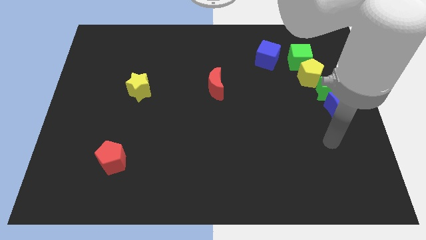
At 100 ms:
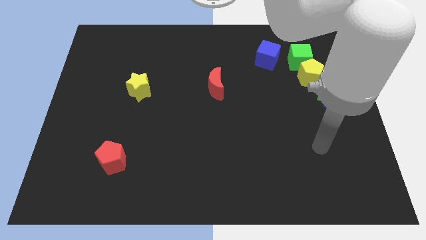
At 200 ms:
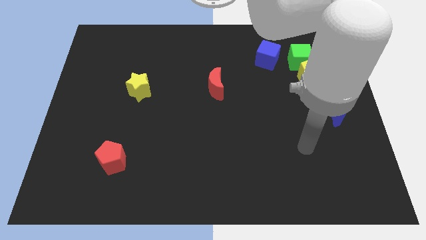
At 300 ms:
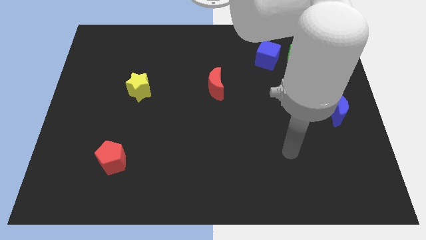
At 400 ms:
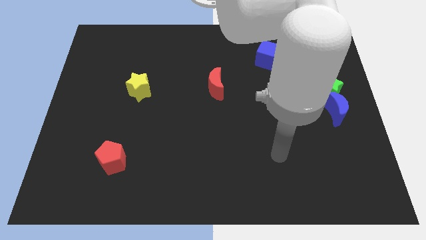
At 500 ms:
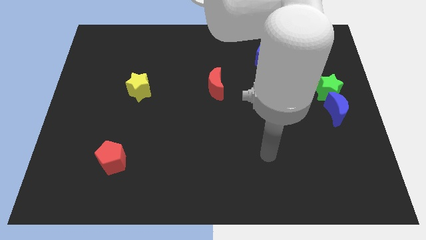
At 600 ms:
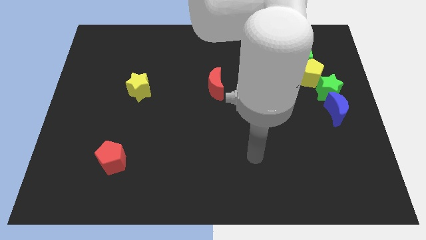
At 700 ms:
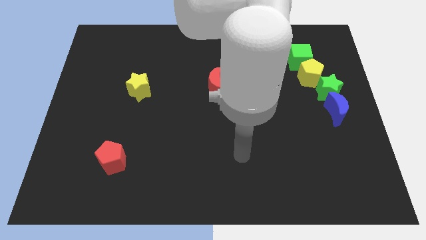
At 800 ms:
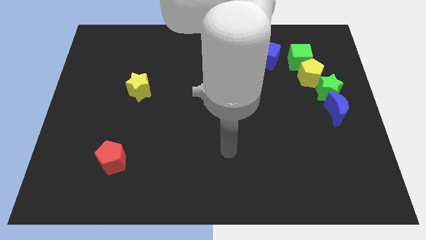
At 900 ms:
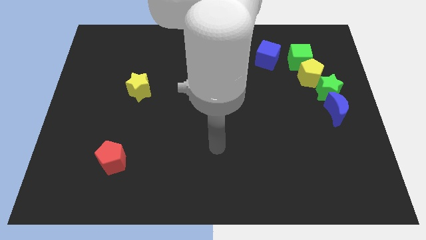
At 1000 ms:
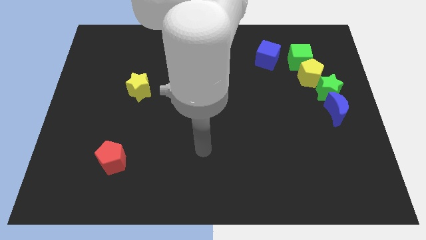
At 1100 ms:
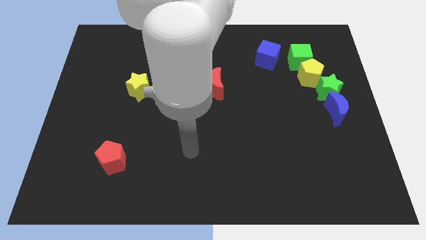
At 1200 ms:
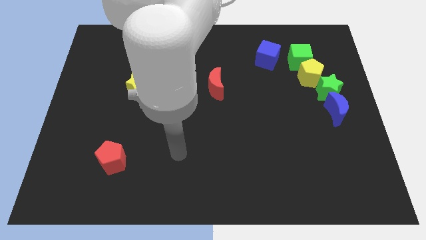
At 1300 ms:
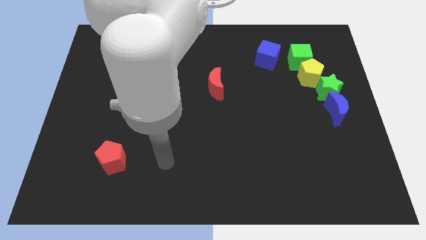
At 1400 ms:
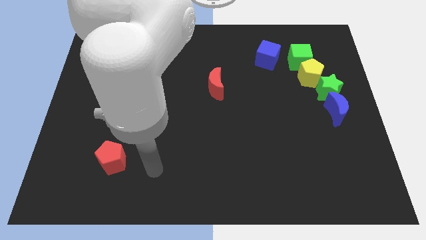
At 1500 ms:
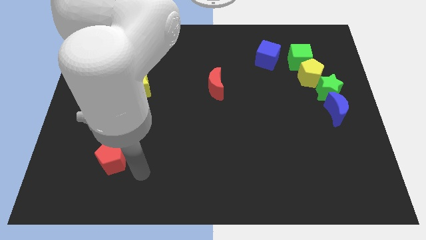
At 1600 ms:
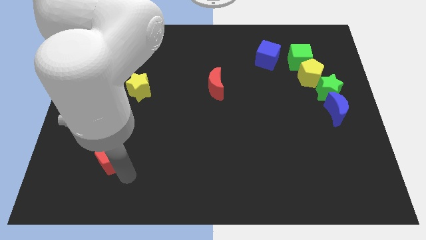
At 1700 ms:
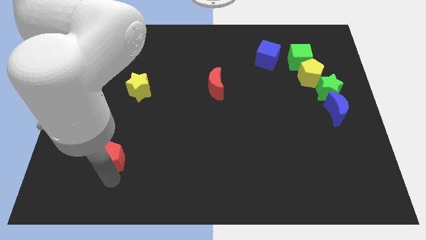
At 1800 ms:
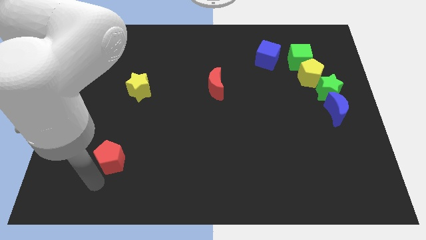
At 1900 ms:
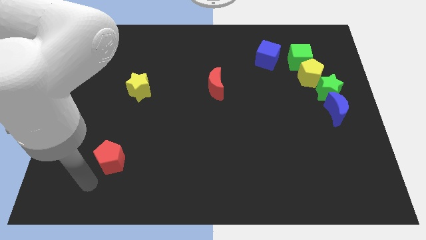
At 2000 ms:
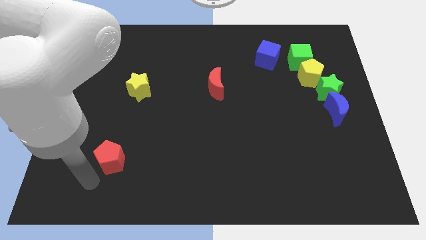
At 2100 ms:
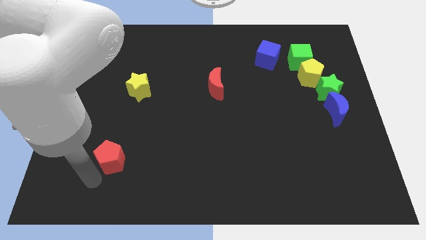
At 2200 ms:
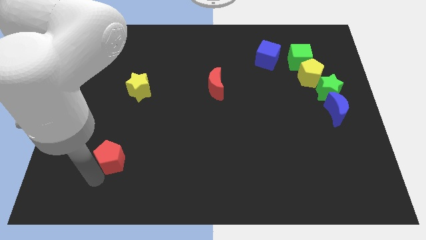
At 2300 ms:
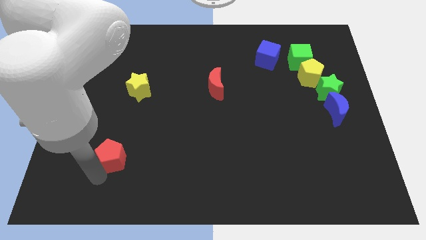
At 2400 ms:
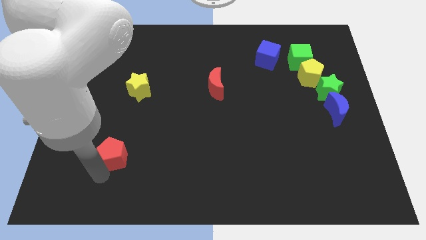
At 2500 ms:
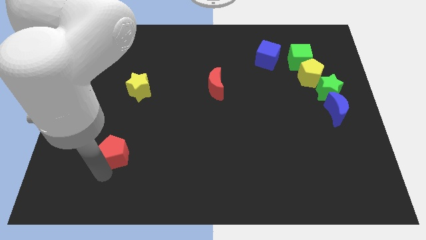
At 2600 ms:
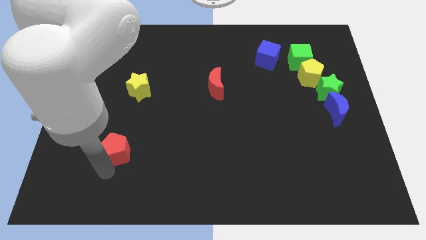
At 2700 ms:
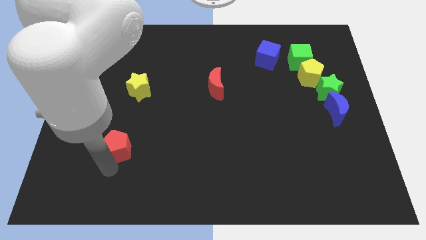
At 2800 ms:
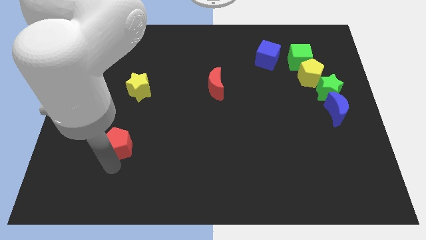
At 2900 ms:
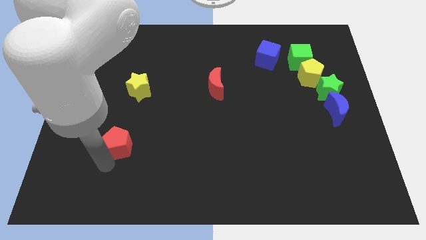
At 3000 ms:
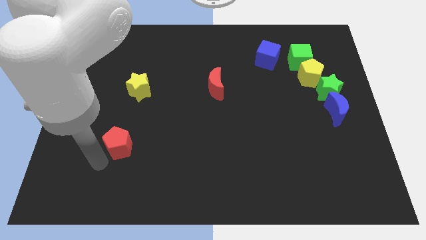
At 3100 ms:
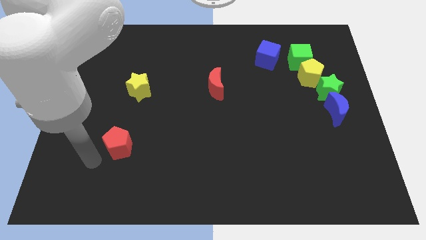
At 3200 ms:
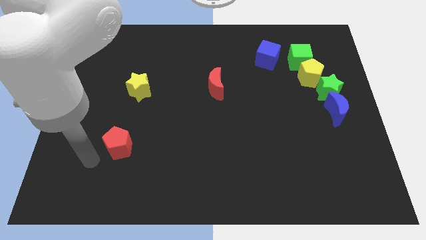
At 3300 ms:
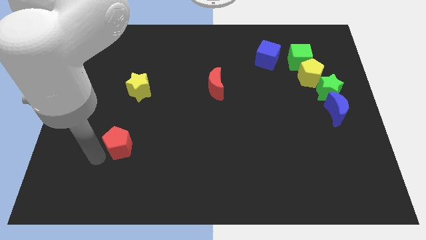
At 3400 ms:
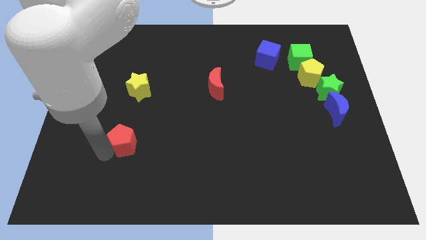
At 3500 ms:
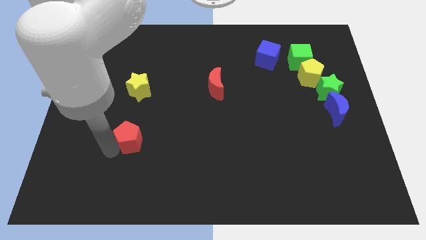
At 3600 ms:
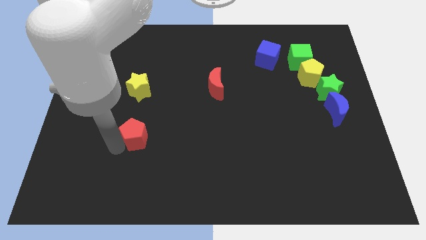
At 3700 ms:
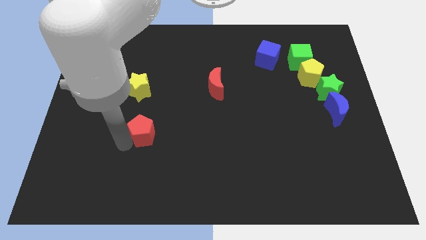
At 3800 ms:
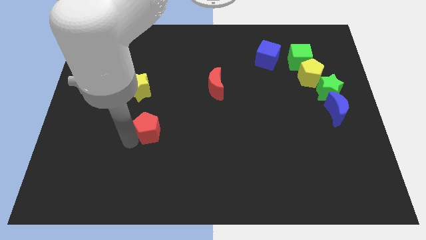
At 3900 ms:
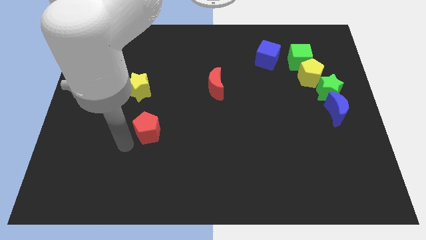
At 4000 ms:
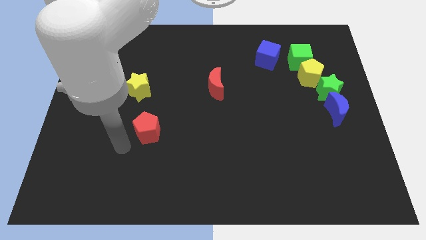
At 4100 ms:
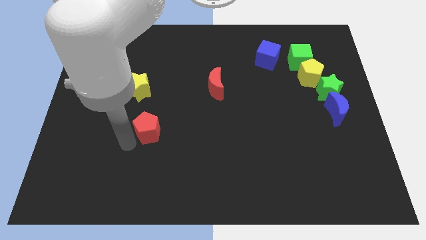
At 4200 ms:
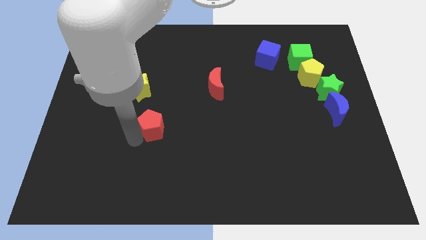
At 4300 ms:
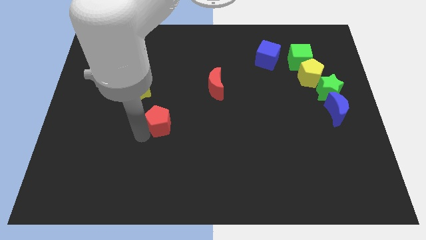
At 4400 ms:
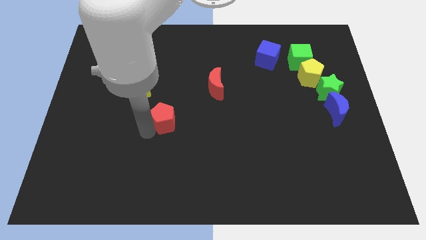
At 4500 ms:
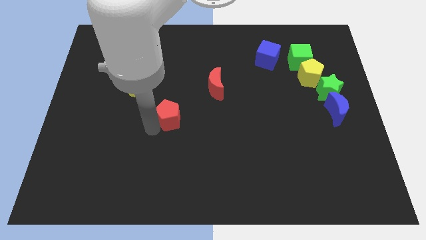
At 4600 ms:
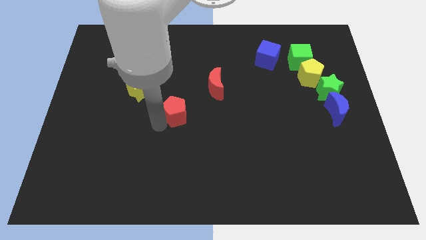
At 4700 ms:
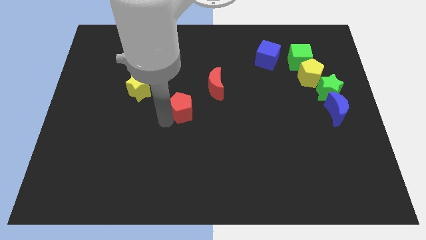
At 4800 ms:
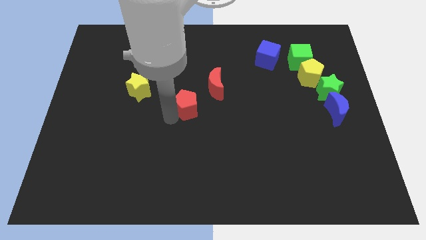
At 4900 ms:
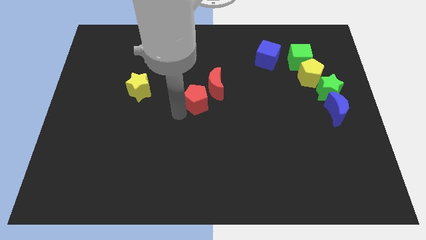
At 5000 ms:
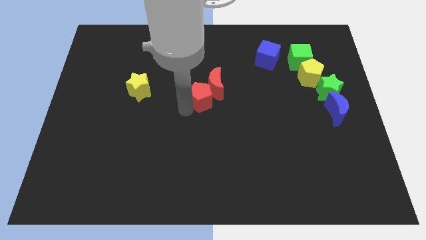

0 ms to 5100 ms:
push the red pentagon next to the red moon

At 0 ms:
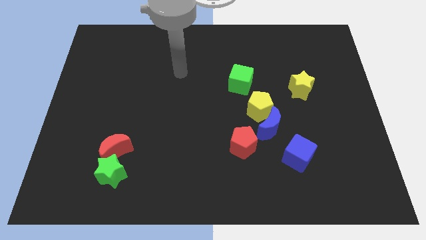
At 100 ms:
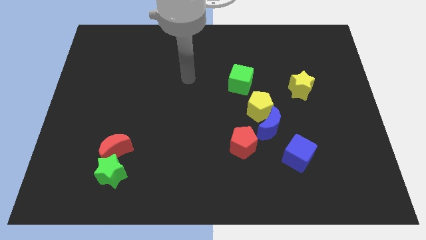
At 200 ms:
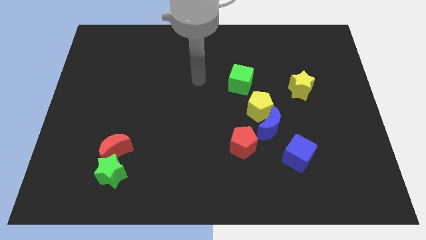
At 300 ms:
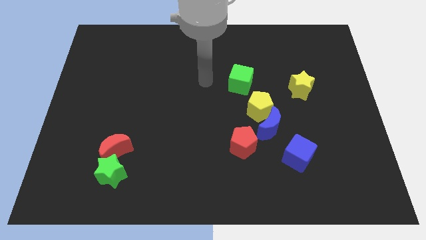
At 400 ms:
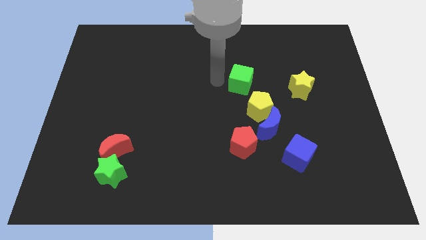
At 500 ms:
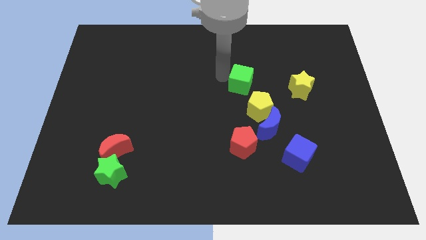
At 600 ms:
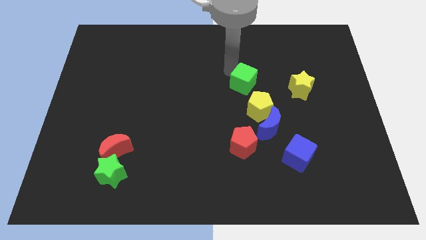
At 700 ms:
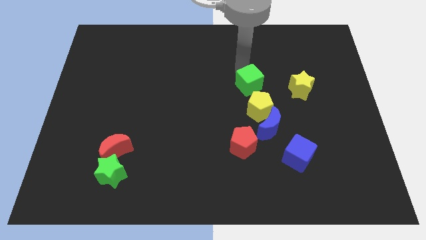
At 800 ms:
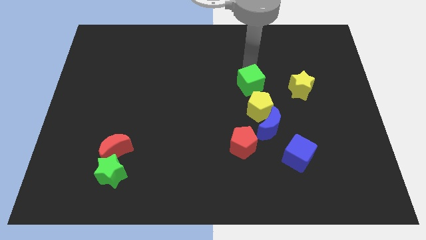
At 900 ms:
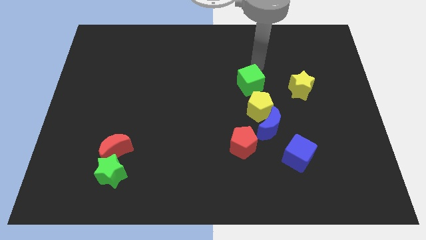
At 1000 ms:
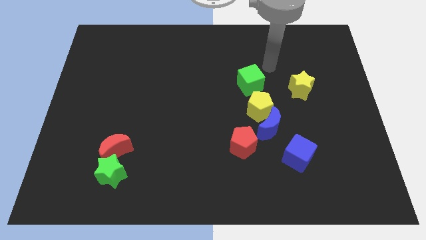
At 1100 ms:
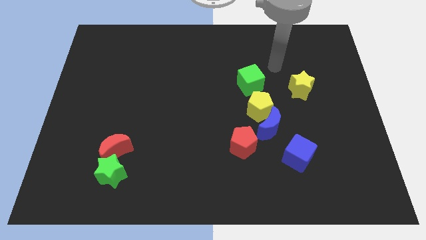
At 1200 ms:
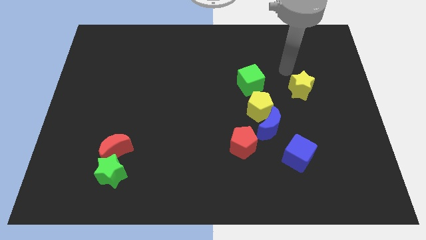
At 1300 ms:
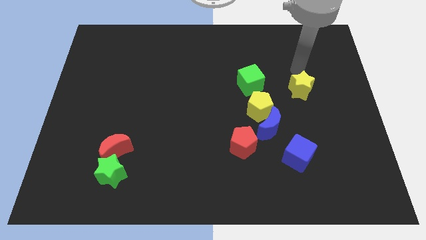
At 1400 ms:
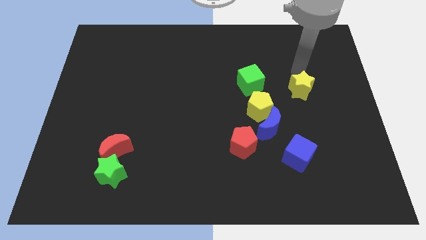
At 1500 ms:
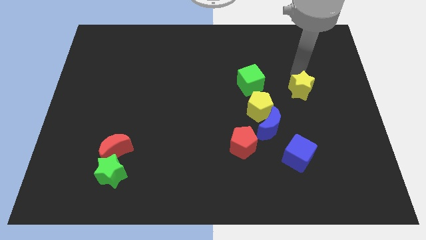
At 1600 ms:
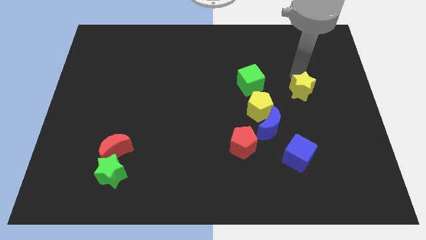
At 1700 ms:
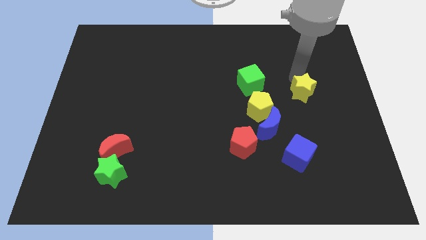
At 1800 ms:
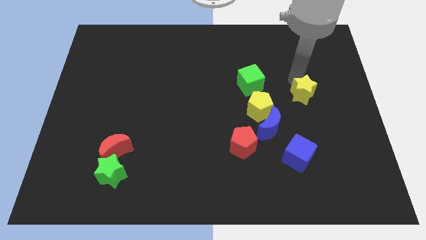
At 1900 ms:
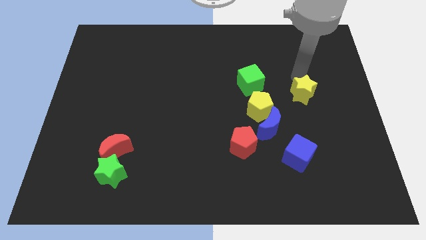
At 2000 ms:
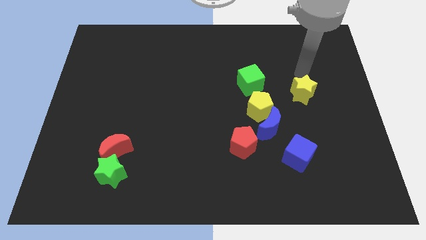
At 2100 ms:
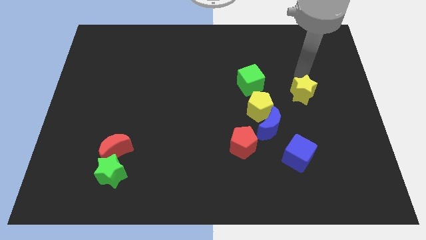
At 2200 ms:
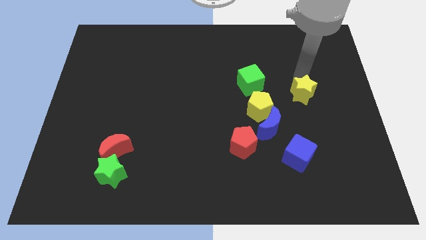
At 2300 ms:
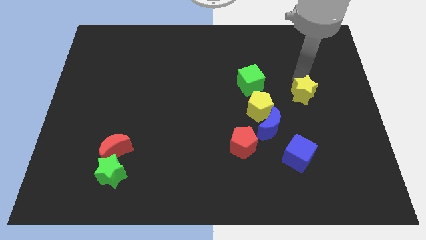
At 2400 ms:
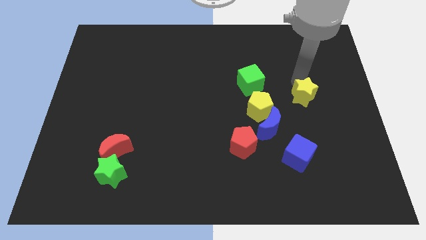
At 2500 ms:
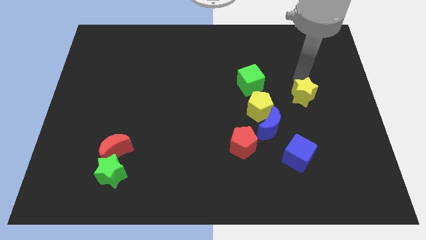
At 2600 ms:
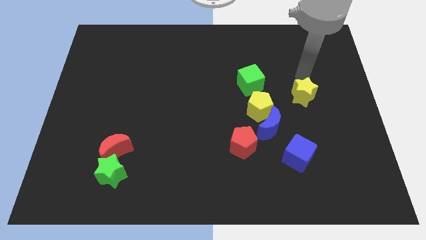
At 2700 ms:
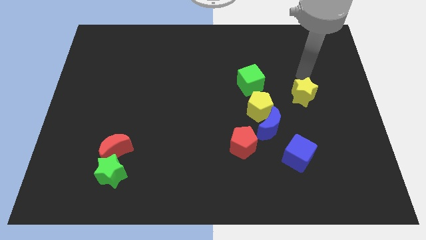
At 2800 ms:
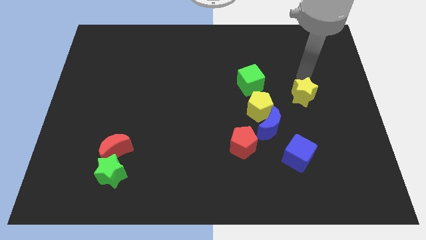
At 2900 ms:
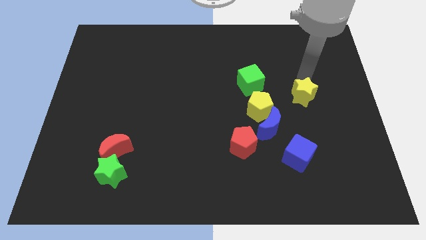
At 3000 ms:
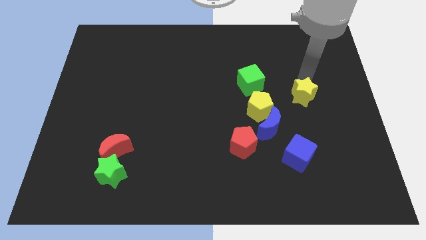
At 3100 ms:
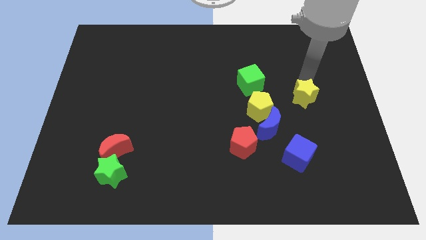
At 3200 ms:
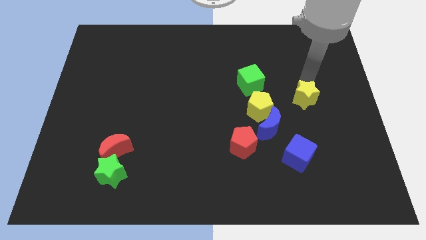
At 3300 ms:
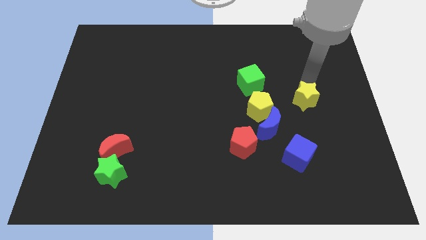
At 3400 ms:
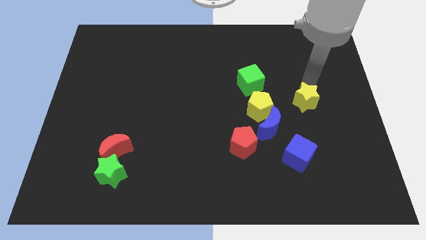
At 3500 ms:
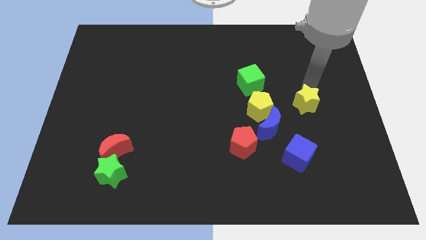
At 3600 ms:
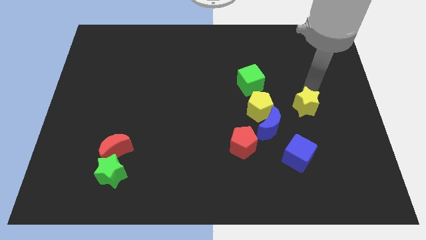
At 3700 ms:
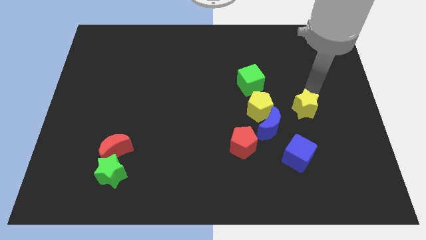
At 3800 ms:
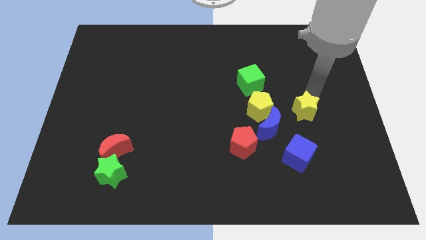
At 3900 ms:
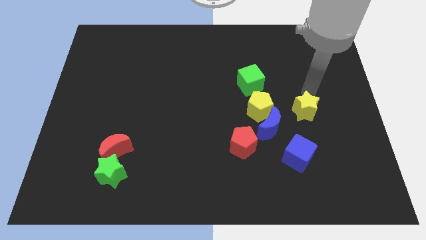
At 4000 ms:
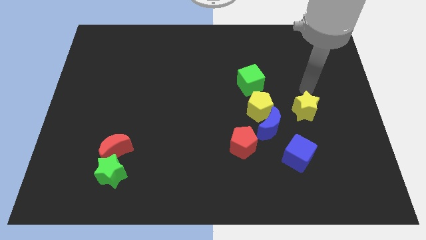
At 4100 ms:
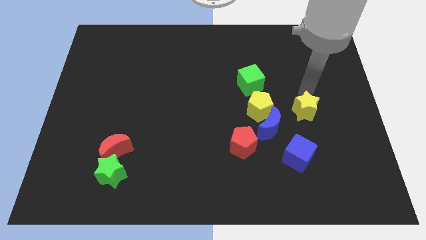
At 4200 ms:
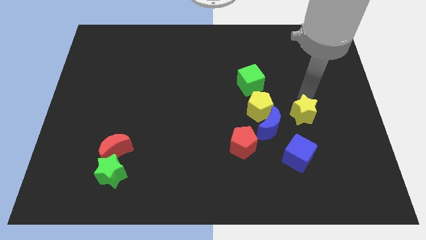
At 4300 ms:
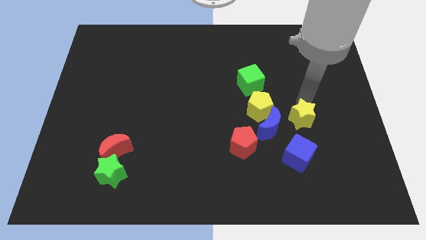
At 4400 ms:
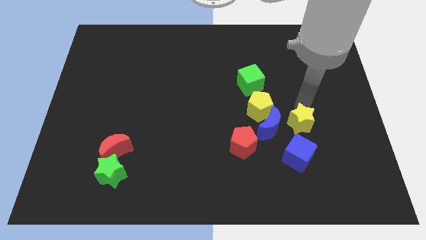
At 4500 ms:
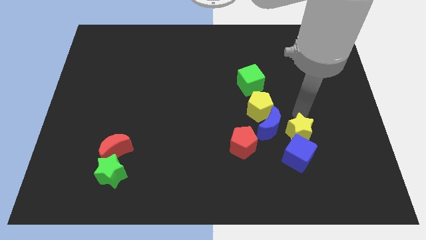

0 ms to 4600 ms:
move the yellow star close to the blue cube
